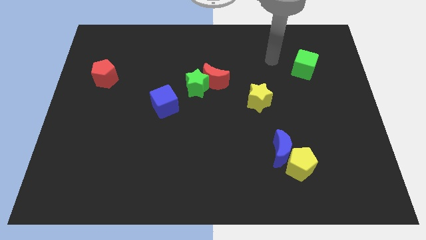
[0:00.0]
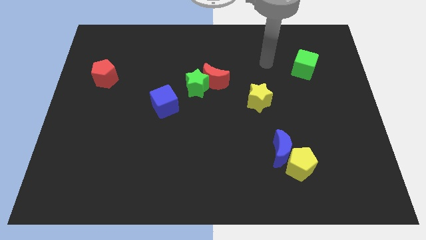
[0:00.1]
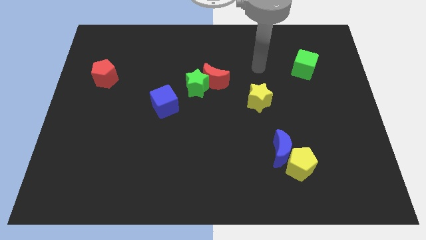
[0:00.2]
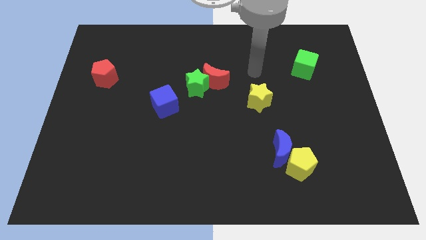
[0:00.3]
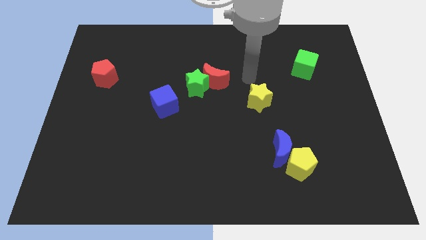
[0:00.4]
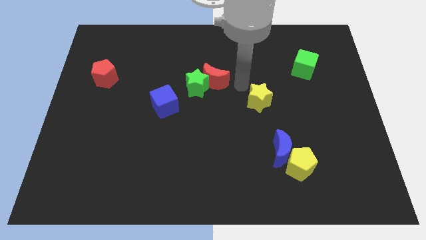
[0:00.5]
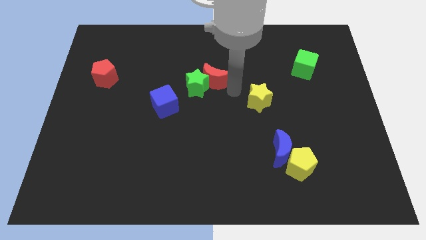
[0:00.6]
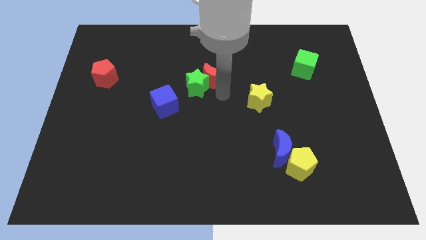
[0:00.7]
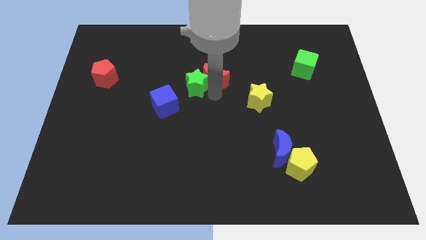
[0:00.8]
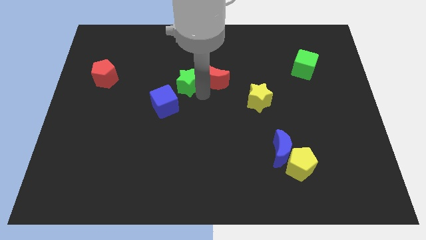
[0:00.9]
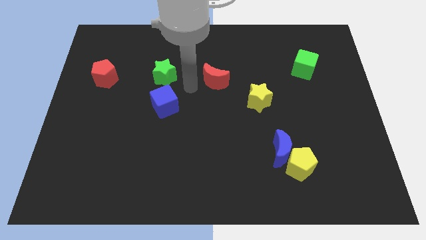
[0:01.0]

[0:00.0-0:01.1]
move the red moon away from the green star

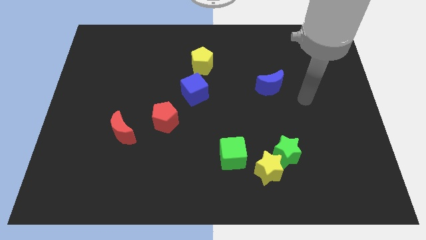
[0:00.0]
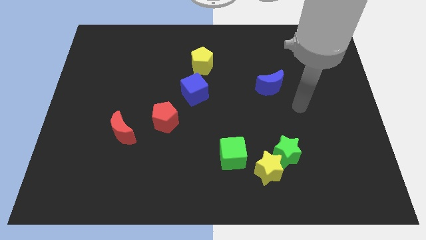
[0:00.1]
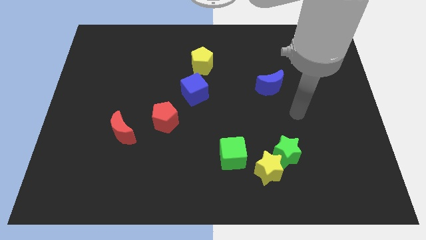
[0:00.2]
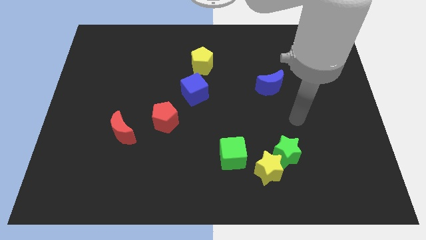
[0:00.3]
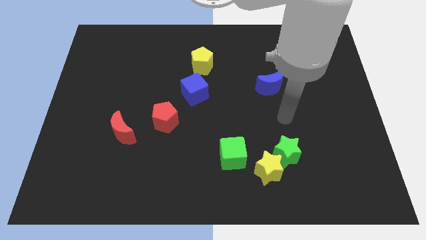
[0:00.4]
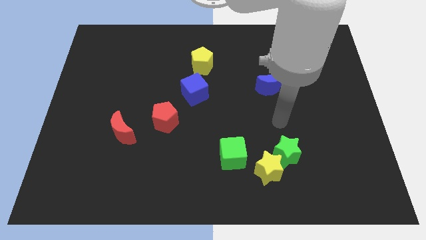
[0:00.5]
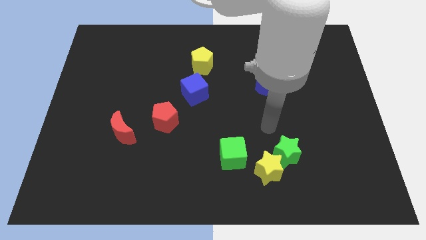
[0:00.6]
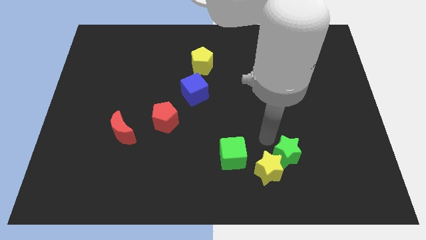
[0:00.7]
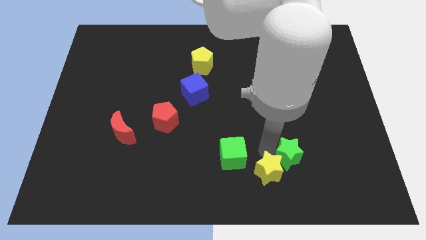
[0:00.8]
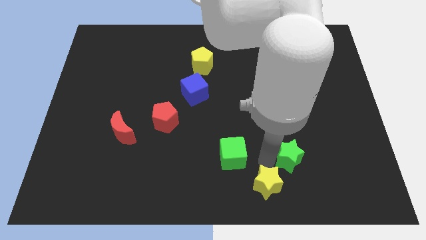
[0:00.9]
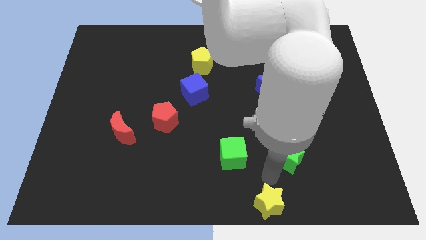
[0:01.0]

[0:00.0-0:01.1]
separate the green star from the yellow star

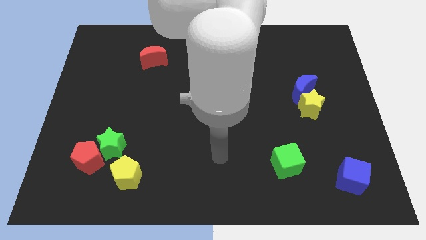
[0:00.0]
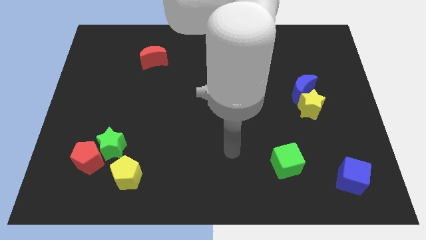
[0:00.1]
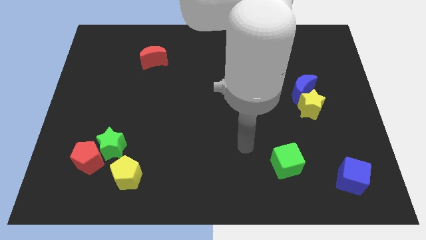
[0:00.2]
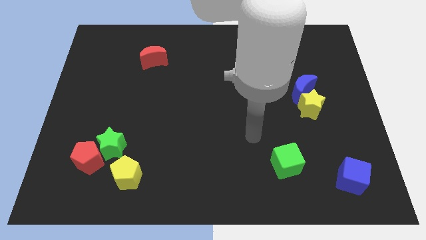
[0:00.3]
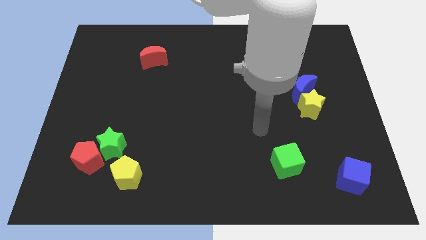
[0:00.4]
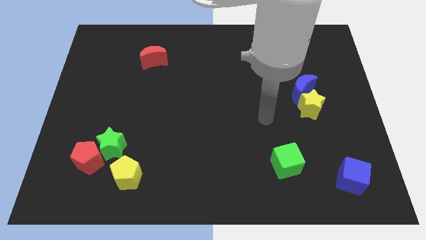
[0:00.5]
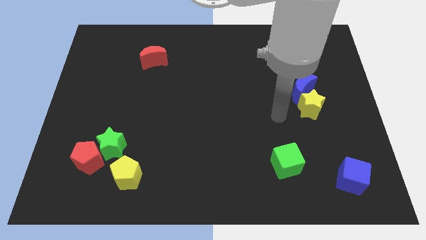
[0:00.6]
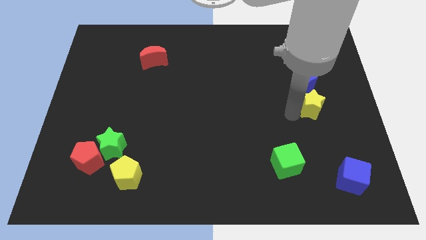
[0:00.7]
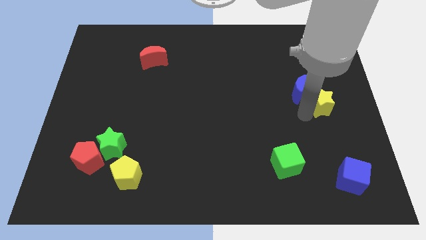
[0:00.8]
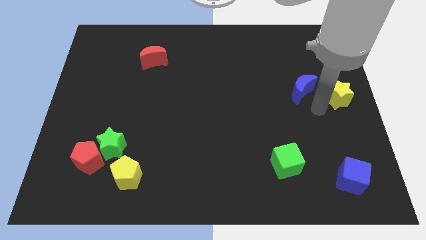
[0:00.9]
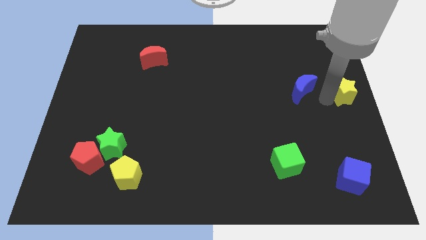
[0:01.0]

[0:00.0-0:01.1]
separate the blue moon from the yellow star

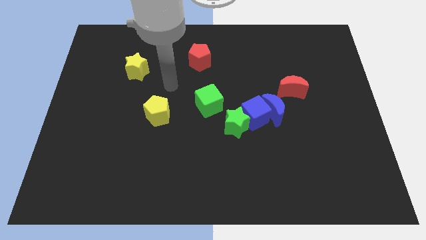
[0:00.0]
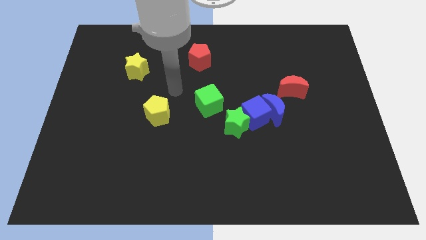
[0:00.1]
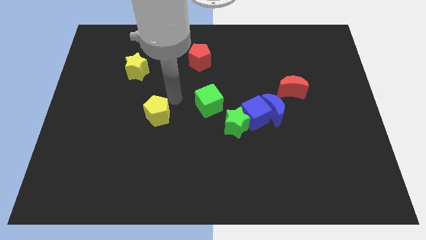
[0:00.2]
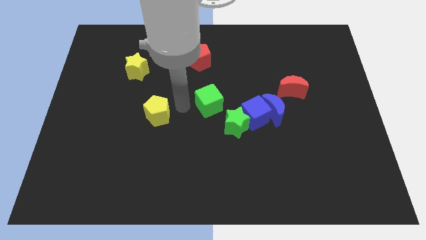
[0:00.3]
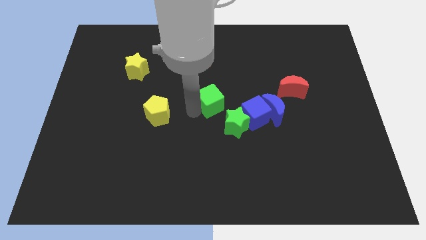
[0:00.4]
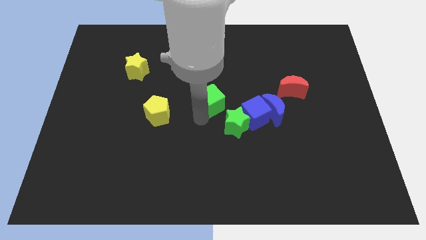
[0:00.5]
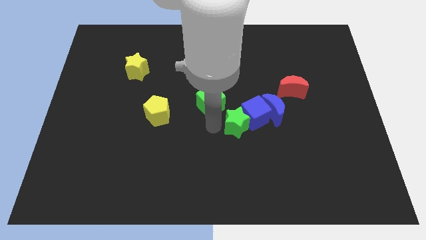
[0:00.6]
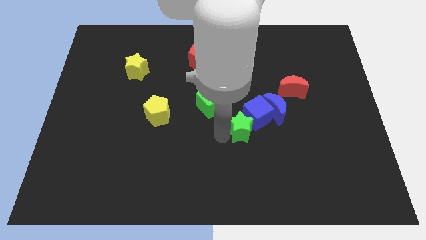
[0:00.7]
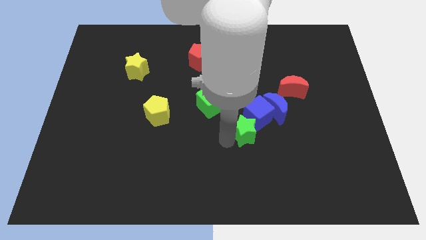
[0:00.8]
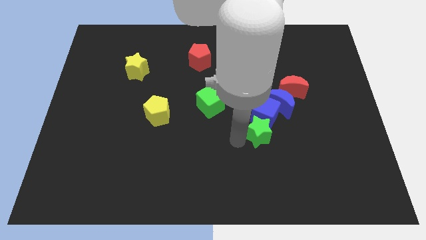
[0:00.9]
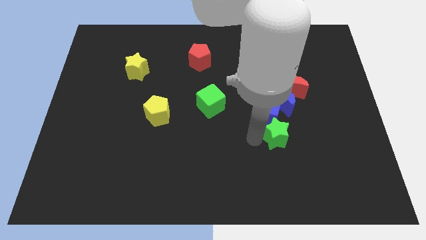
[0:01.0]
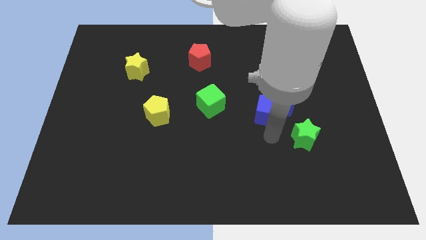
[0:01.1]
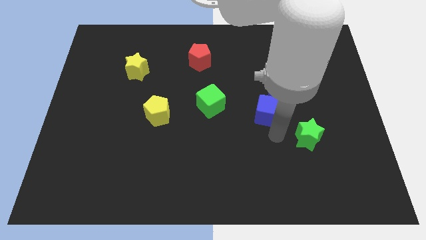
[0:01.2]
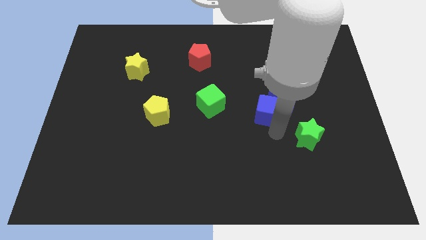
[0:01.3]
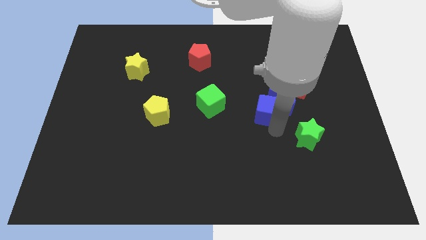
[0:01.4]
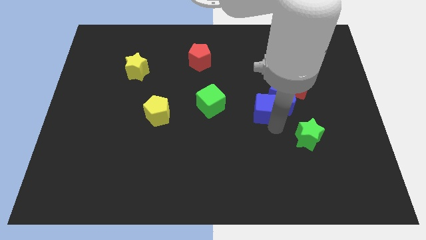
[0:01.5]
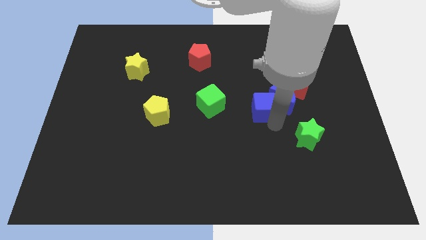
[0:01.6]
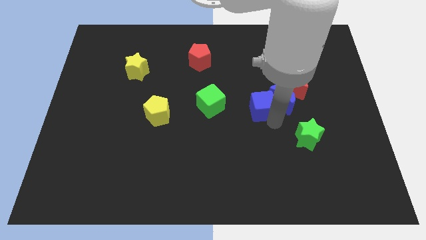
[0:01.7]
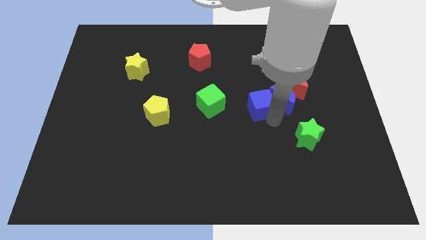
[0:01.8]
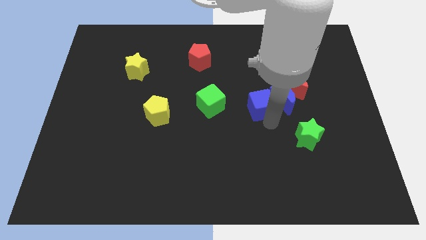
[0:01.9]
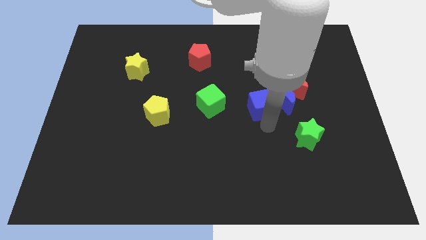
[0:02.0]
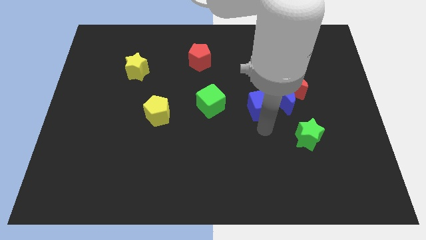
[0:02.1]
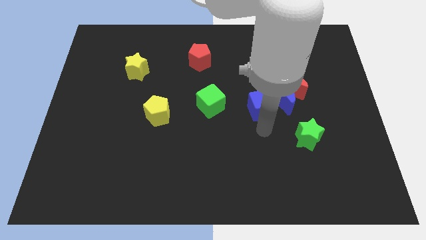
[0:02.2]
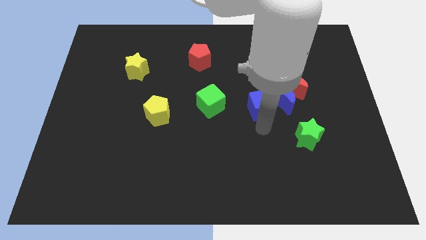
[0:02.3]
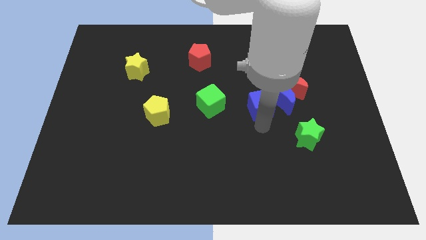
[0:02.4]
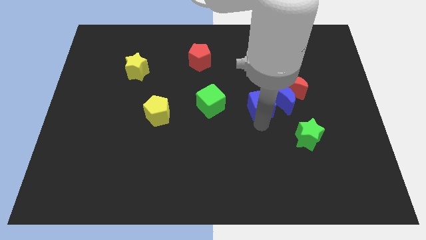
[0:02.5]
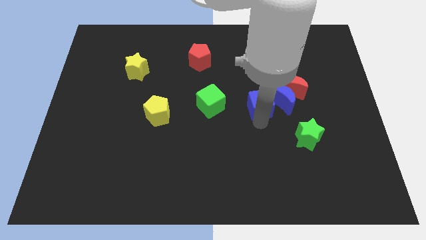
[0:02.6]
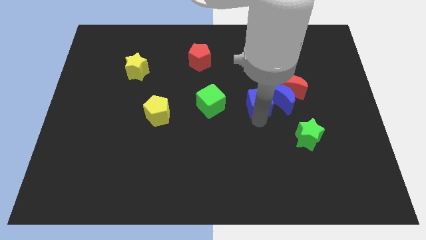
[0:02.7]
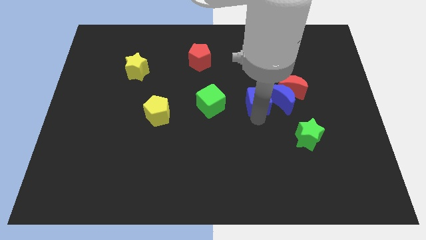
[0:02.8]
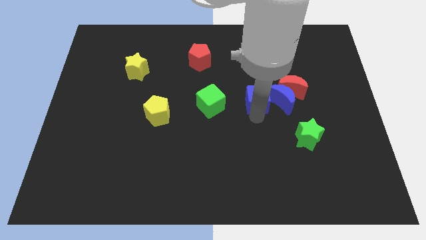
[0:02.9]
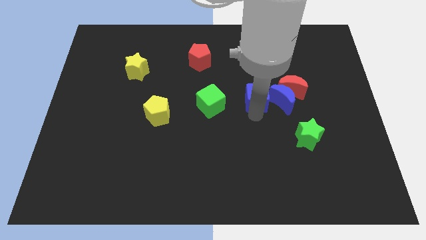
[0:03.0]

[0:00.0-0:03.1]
pull the blue cube apart from the blue moon and green star

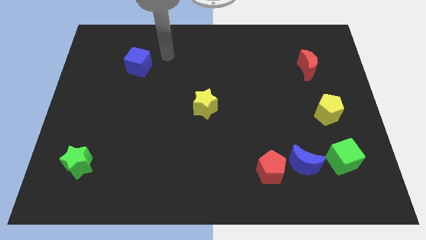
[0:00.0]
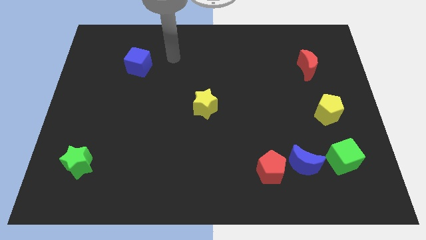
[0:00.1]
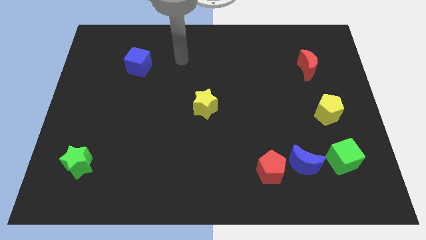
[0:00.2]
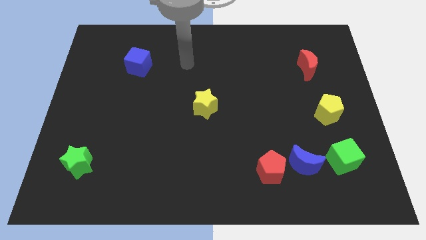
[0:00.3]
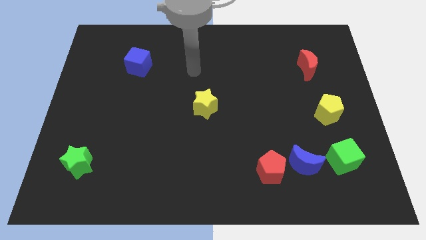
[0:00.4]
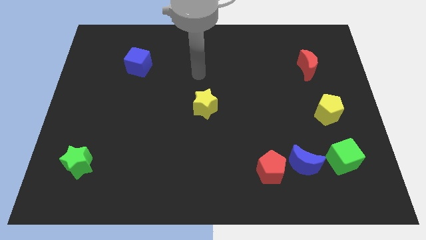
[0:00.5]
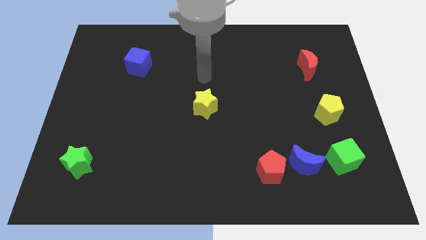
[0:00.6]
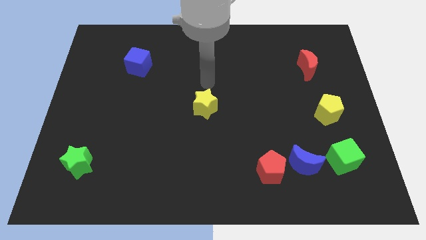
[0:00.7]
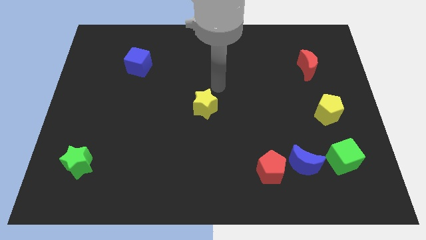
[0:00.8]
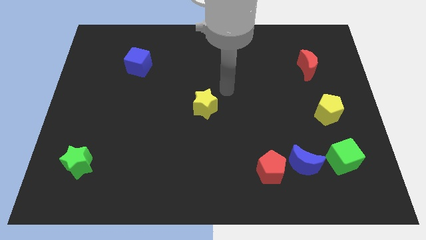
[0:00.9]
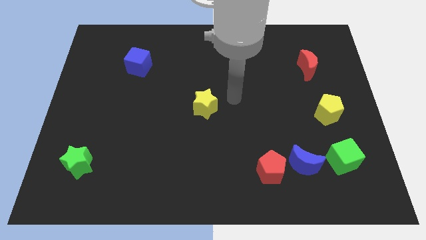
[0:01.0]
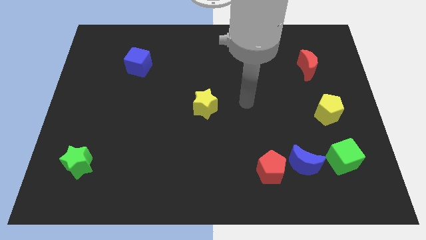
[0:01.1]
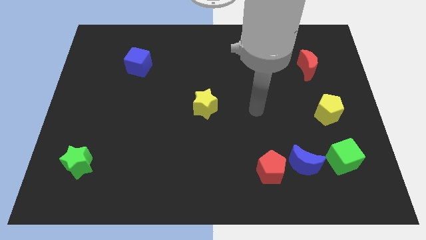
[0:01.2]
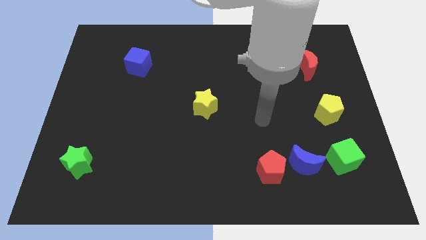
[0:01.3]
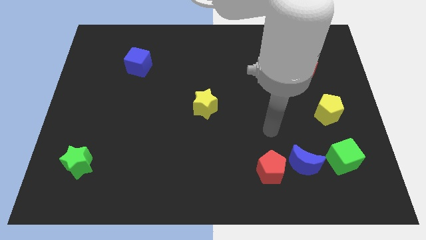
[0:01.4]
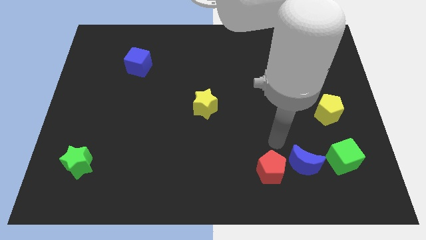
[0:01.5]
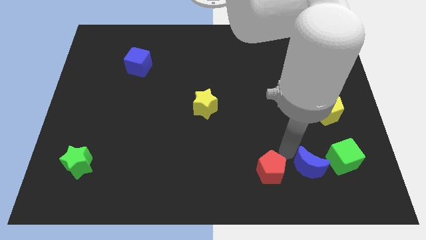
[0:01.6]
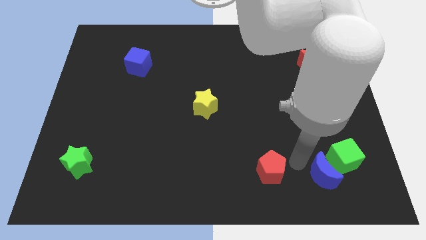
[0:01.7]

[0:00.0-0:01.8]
move the red pentagon away from the blue moon

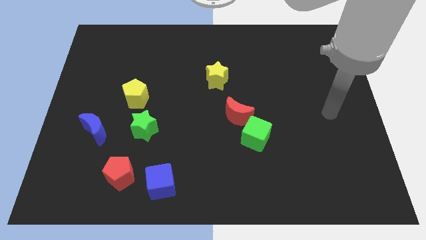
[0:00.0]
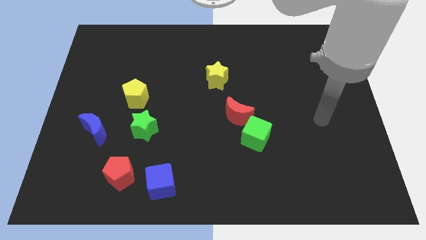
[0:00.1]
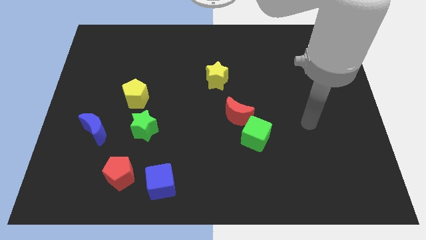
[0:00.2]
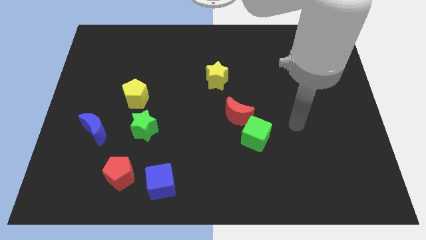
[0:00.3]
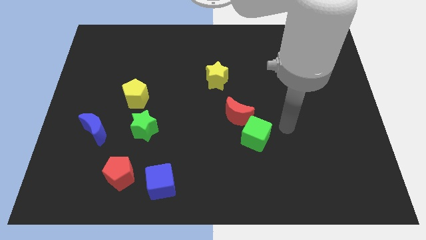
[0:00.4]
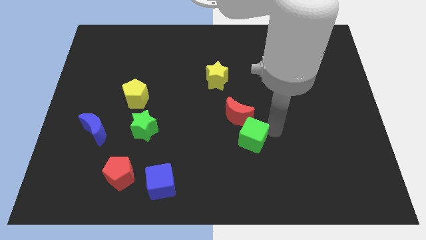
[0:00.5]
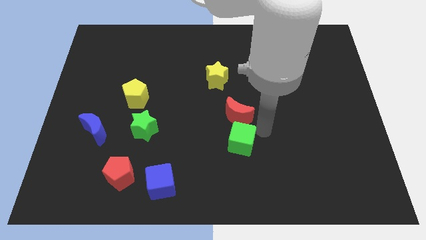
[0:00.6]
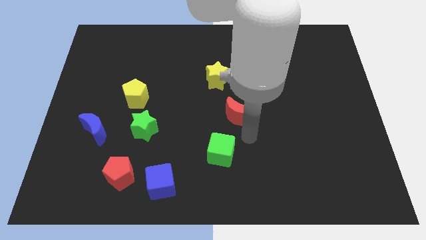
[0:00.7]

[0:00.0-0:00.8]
move the red moon away from the green cube

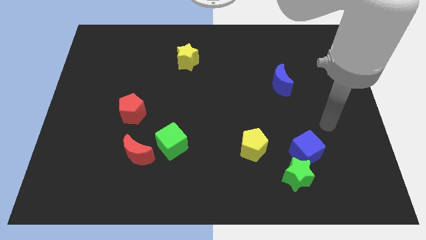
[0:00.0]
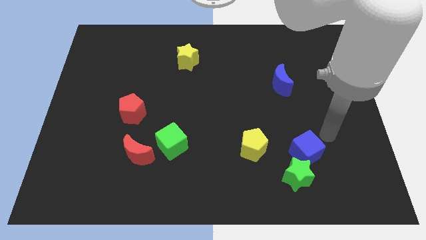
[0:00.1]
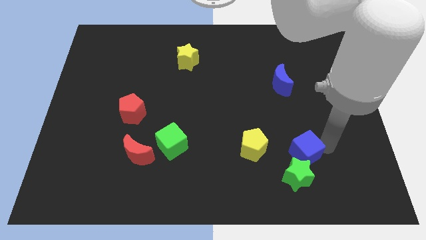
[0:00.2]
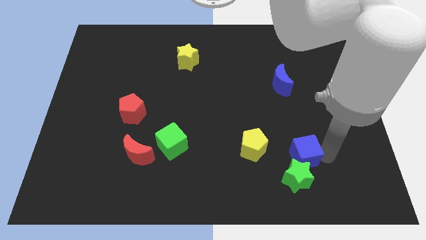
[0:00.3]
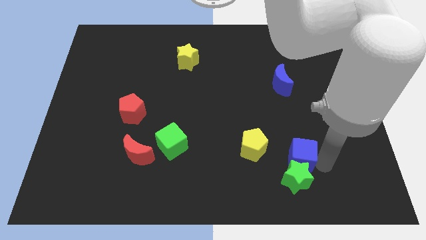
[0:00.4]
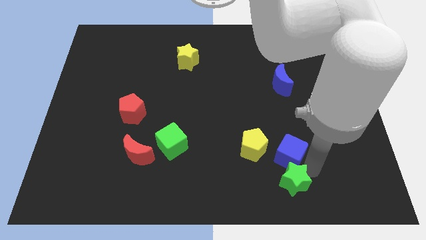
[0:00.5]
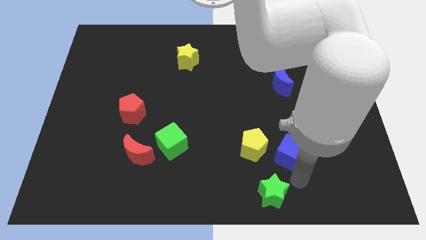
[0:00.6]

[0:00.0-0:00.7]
separate the blue cube from the green star
